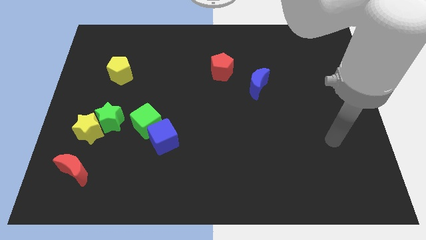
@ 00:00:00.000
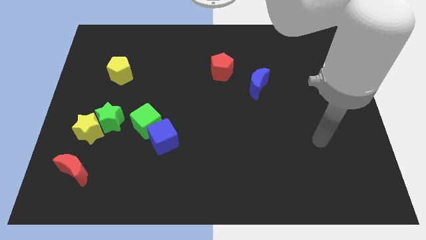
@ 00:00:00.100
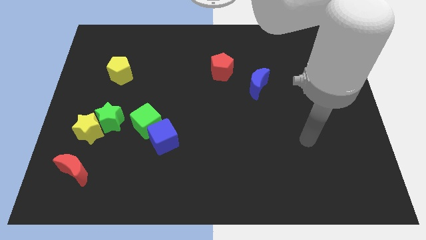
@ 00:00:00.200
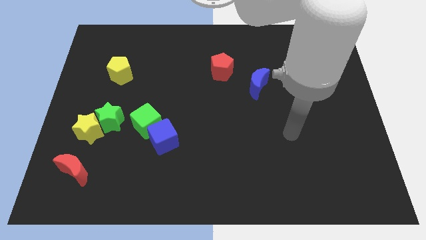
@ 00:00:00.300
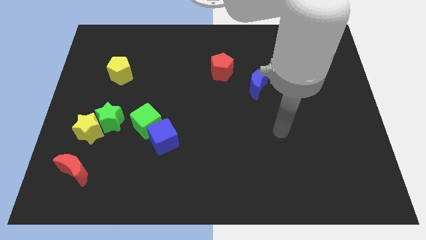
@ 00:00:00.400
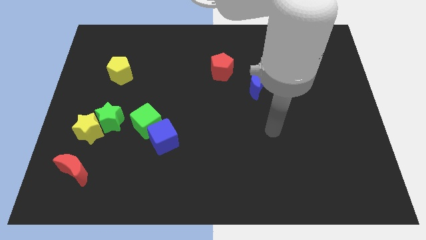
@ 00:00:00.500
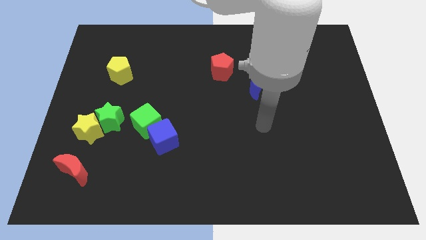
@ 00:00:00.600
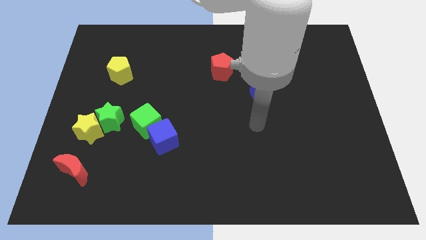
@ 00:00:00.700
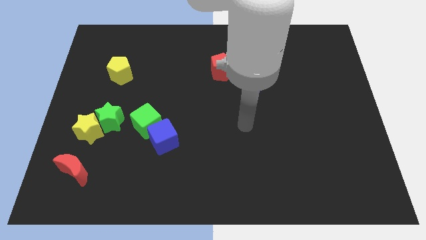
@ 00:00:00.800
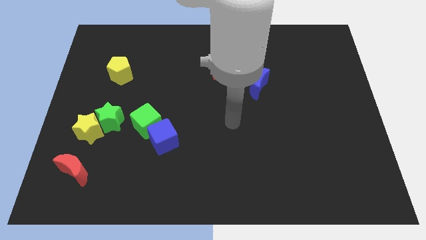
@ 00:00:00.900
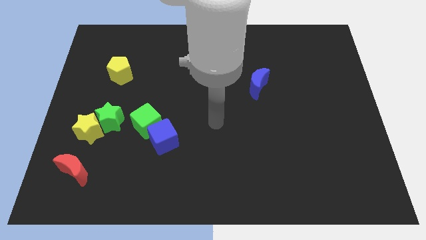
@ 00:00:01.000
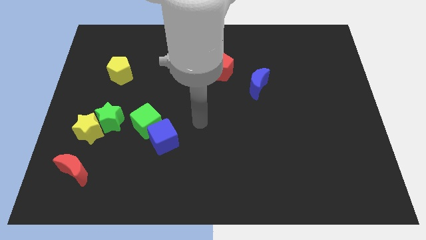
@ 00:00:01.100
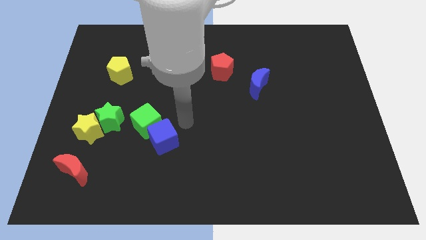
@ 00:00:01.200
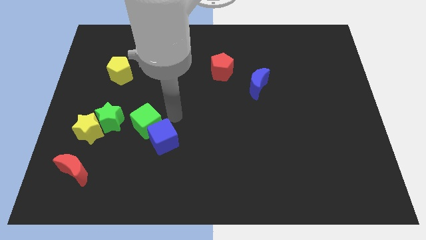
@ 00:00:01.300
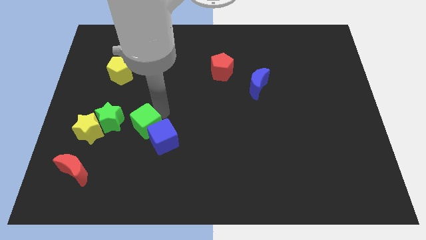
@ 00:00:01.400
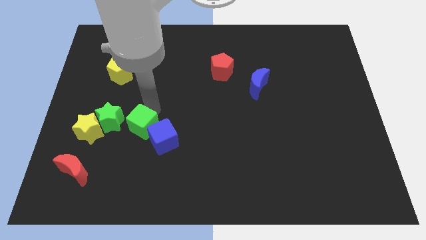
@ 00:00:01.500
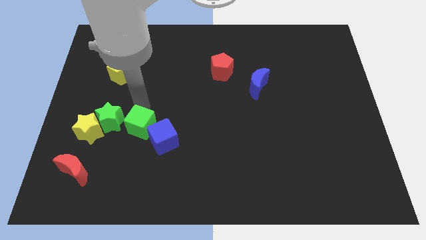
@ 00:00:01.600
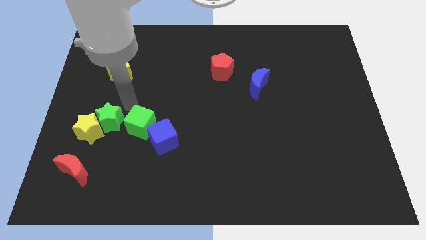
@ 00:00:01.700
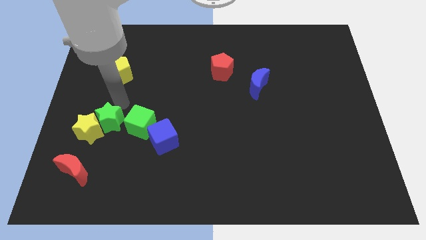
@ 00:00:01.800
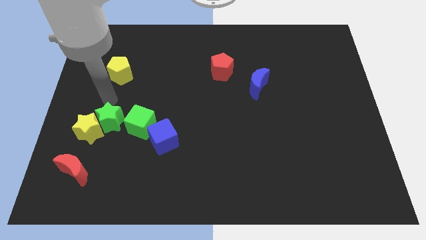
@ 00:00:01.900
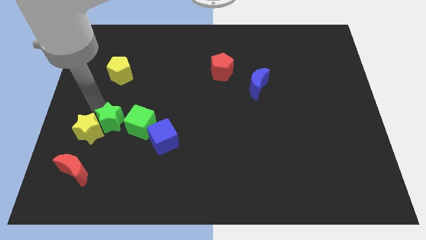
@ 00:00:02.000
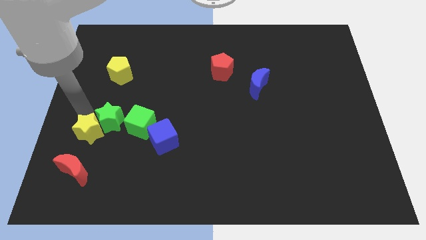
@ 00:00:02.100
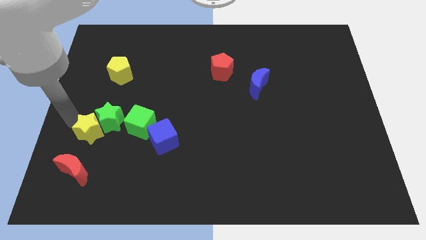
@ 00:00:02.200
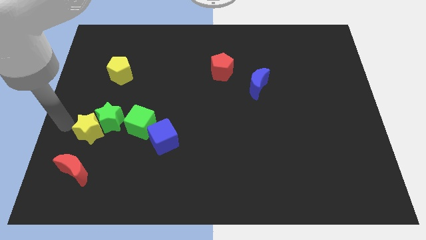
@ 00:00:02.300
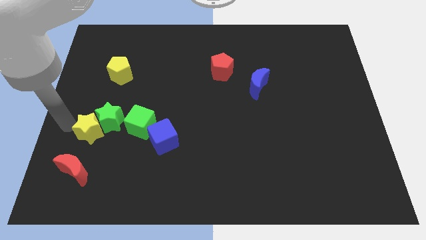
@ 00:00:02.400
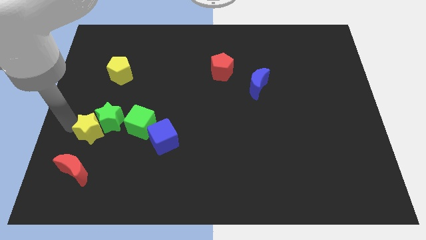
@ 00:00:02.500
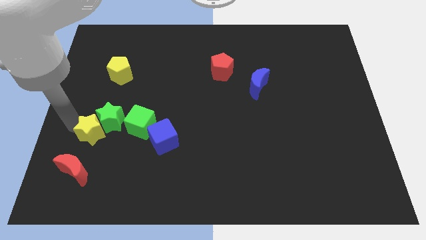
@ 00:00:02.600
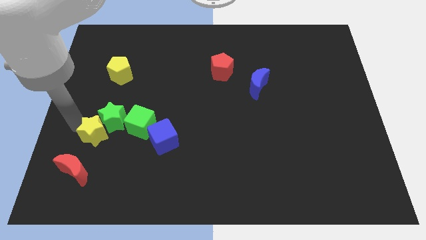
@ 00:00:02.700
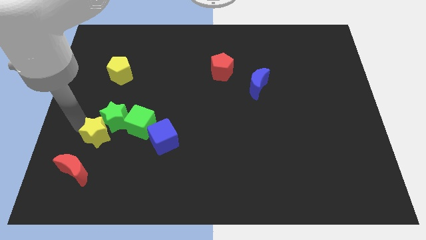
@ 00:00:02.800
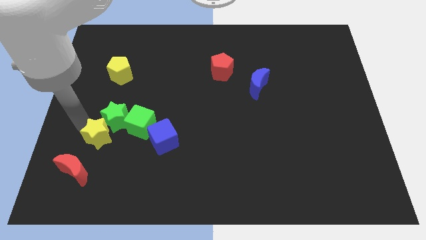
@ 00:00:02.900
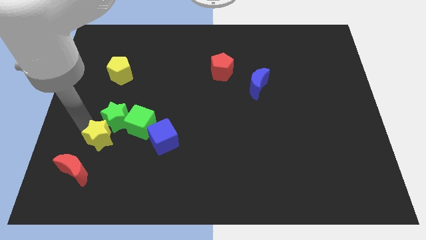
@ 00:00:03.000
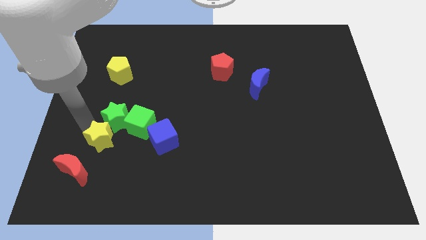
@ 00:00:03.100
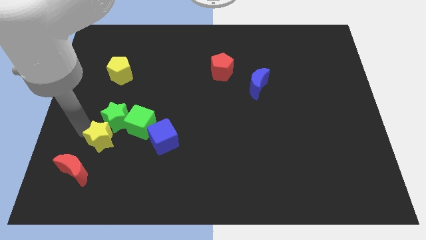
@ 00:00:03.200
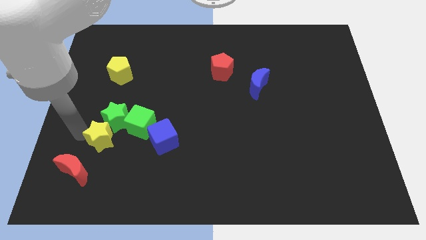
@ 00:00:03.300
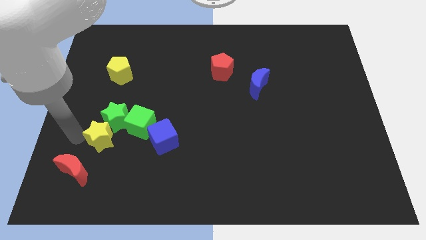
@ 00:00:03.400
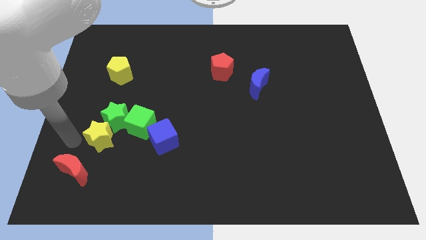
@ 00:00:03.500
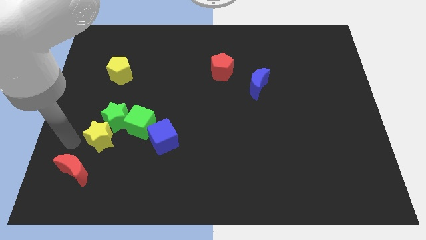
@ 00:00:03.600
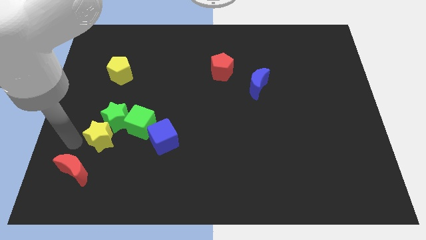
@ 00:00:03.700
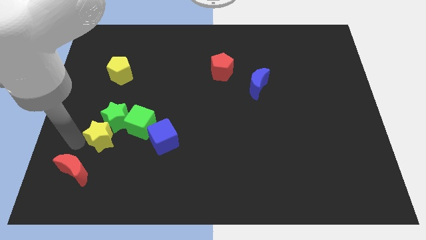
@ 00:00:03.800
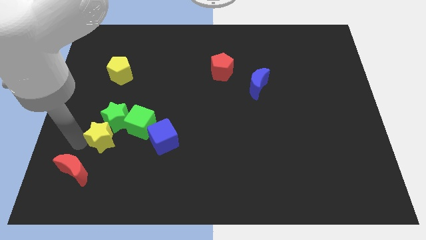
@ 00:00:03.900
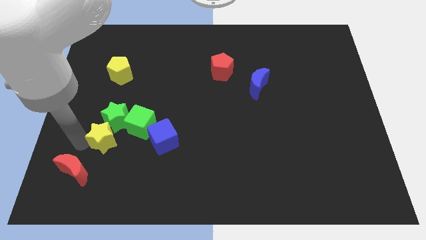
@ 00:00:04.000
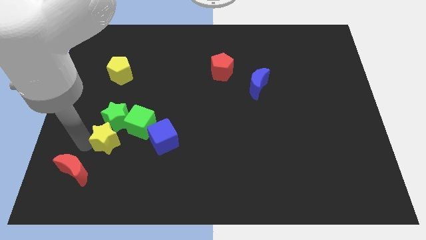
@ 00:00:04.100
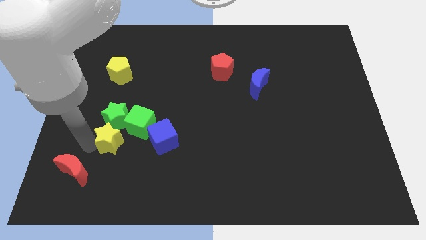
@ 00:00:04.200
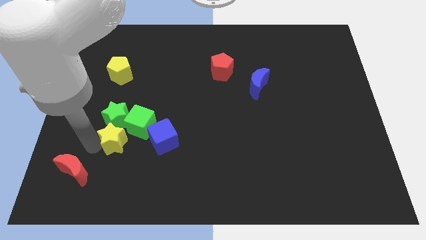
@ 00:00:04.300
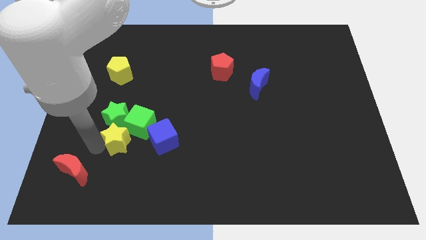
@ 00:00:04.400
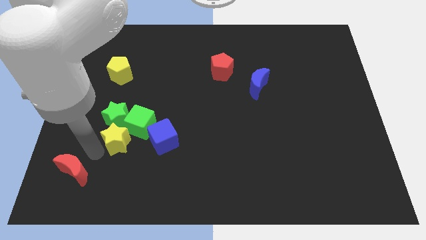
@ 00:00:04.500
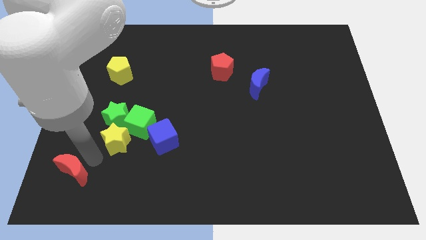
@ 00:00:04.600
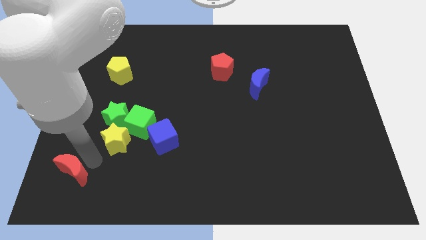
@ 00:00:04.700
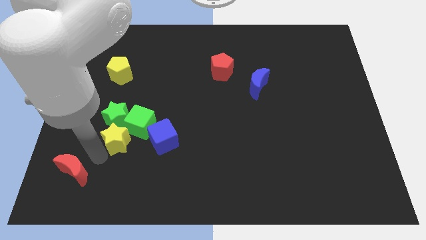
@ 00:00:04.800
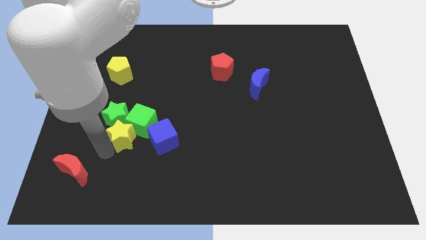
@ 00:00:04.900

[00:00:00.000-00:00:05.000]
put the yellow star to the green cube

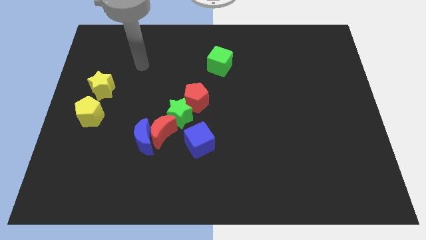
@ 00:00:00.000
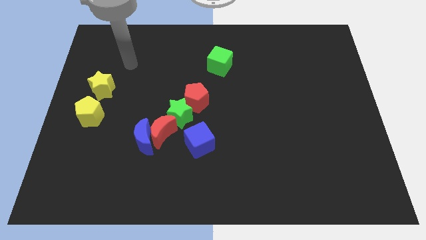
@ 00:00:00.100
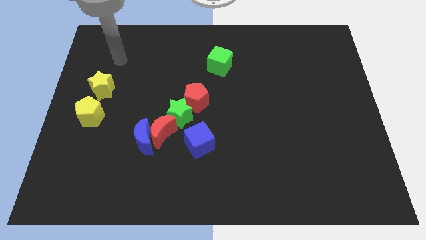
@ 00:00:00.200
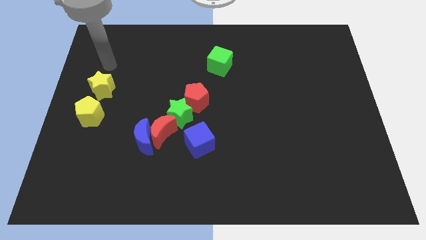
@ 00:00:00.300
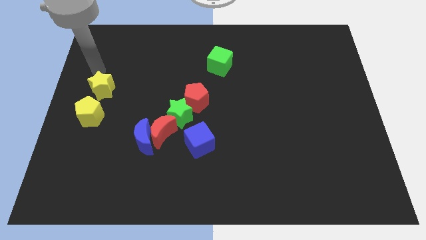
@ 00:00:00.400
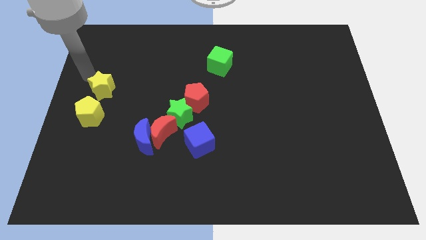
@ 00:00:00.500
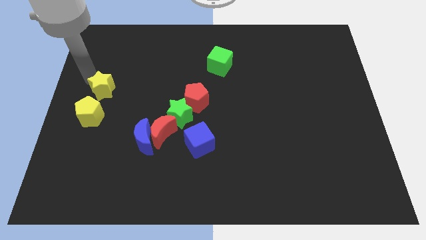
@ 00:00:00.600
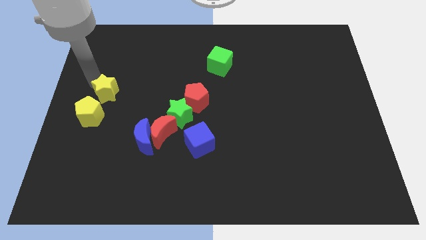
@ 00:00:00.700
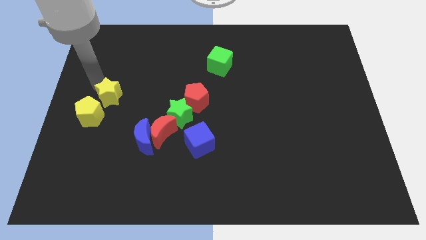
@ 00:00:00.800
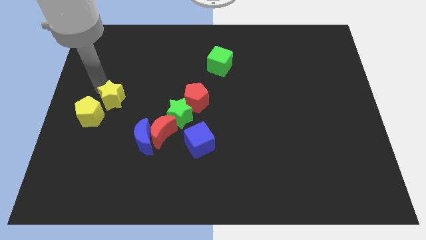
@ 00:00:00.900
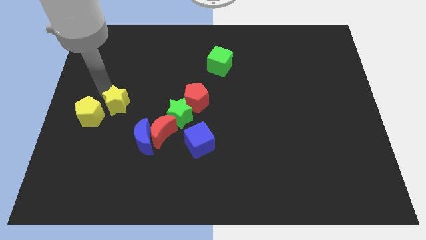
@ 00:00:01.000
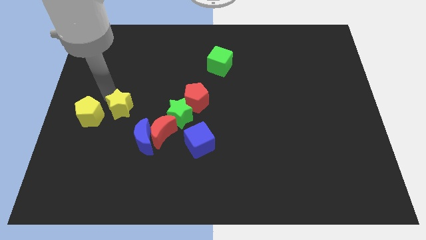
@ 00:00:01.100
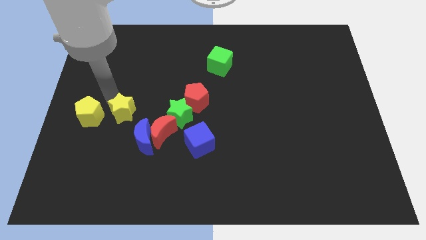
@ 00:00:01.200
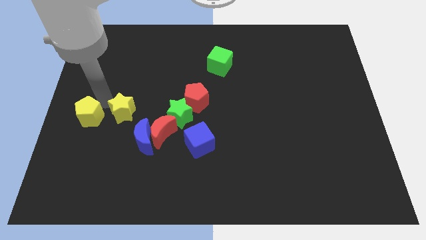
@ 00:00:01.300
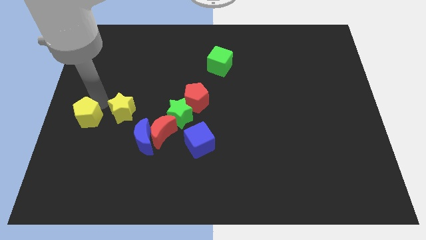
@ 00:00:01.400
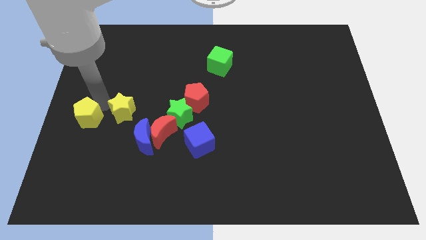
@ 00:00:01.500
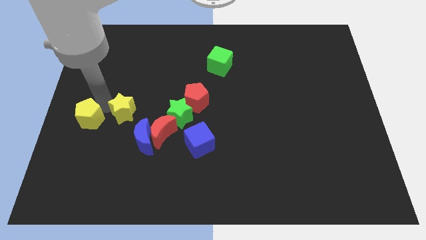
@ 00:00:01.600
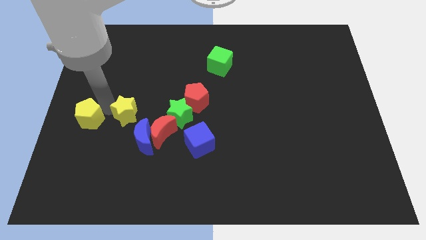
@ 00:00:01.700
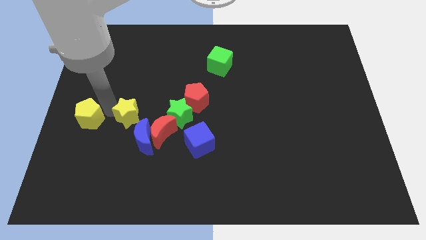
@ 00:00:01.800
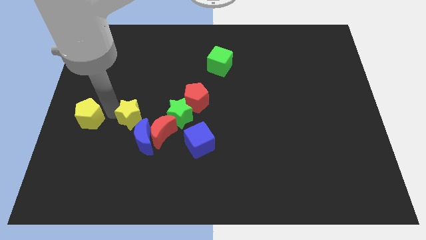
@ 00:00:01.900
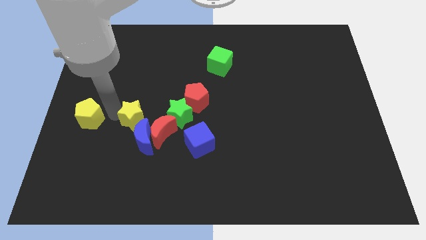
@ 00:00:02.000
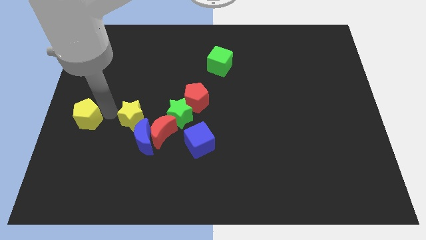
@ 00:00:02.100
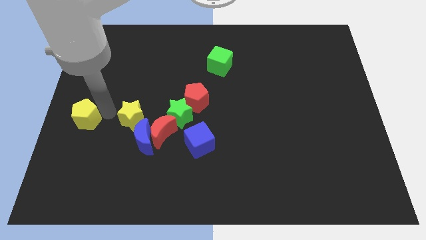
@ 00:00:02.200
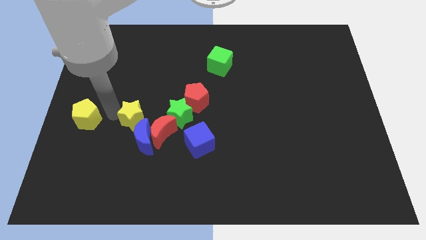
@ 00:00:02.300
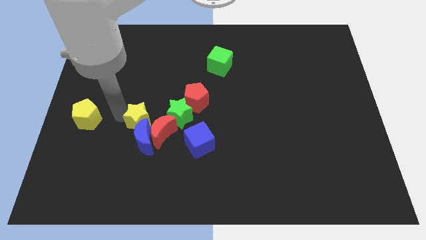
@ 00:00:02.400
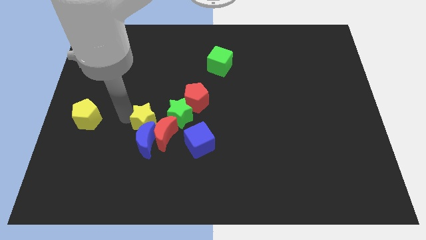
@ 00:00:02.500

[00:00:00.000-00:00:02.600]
push the yellow star to the red moon
